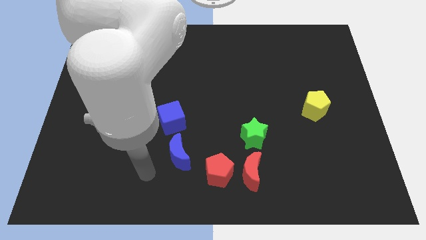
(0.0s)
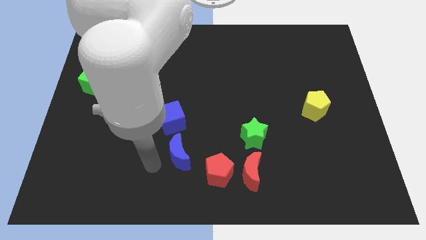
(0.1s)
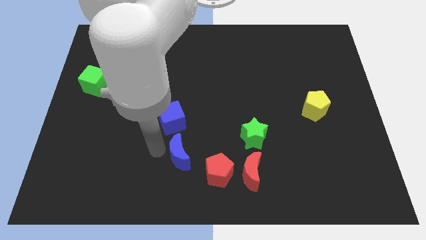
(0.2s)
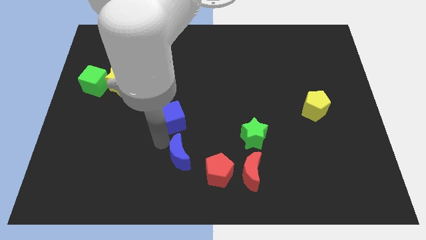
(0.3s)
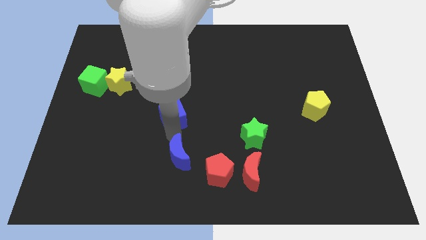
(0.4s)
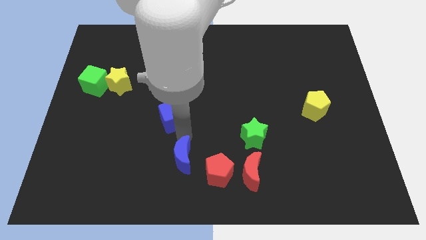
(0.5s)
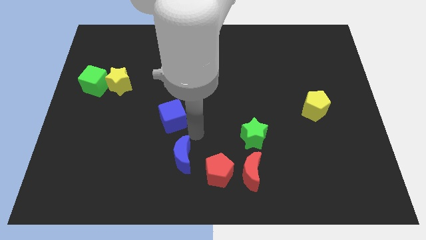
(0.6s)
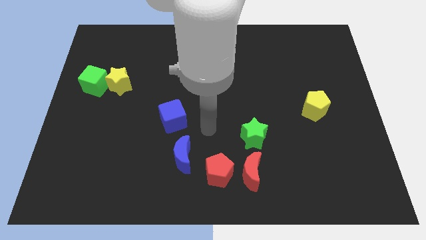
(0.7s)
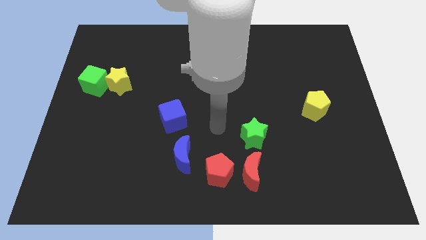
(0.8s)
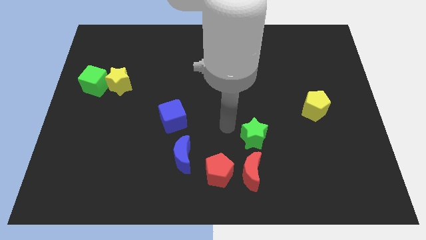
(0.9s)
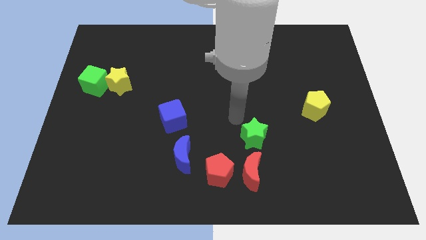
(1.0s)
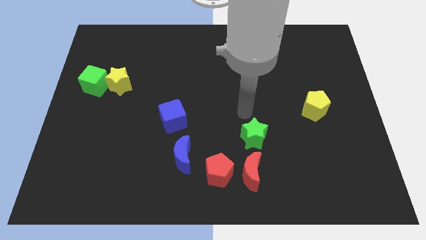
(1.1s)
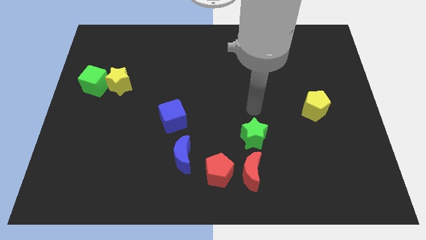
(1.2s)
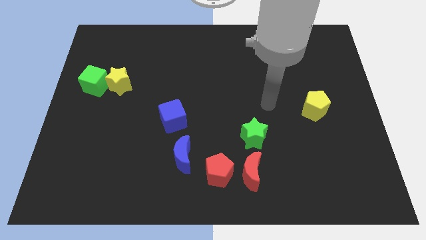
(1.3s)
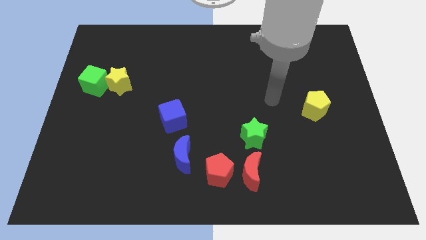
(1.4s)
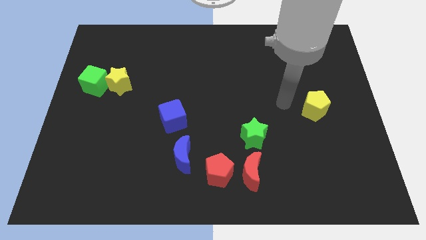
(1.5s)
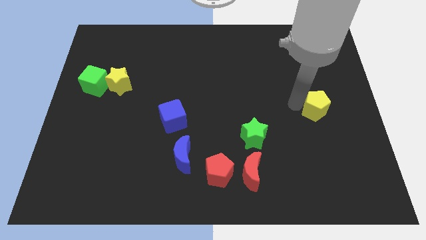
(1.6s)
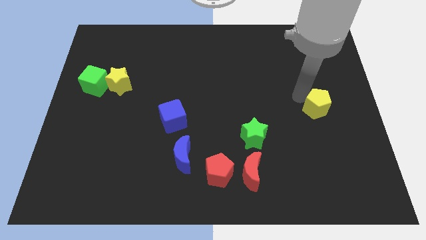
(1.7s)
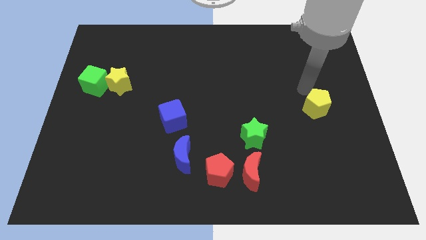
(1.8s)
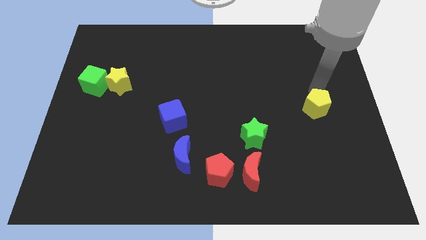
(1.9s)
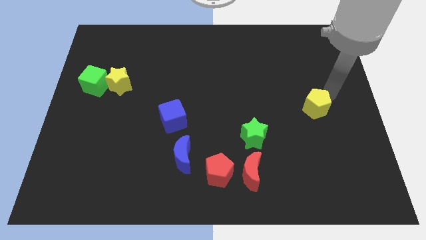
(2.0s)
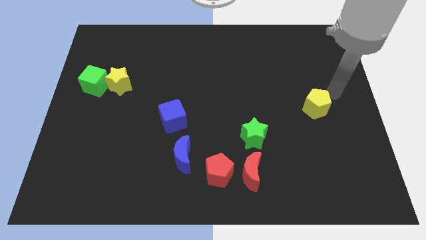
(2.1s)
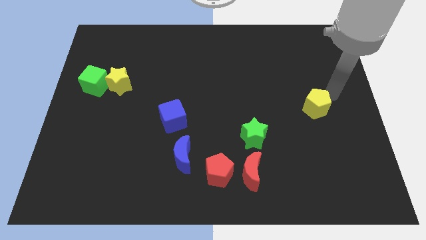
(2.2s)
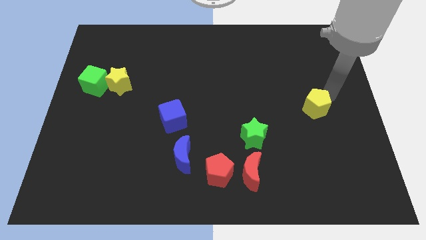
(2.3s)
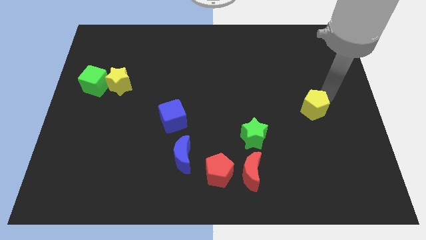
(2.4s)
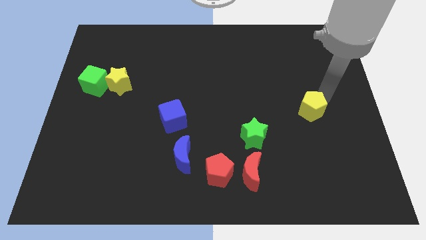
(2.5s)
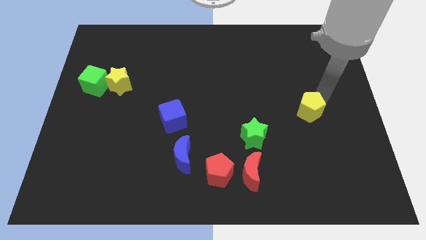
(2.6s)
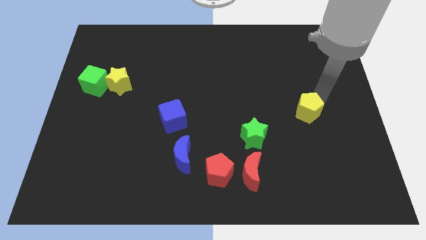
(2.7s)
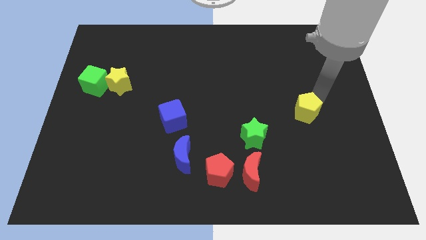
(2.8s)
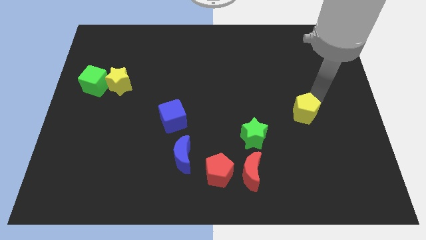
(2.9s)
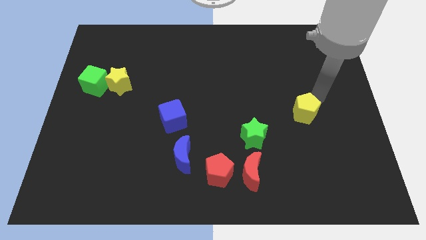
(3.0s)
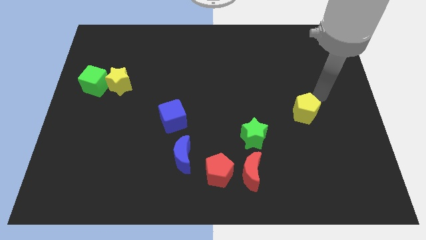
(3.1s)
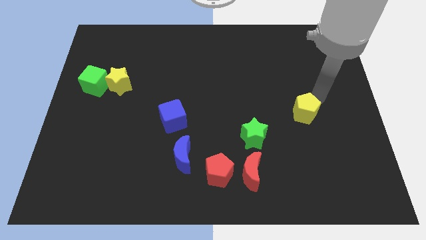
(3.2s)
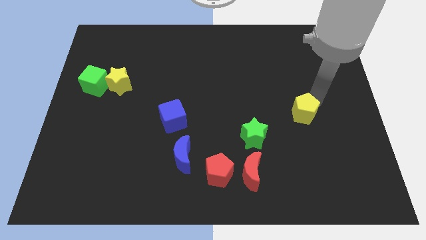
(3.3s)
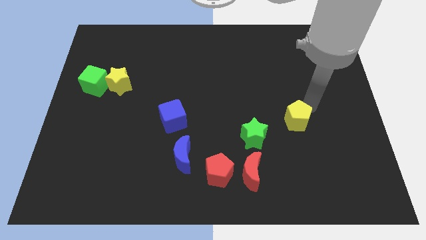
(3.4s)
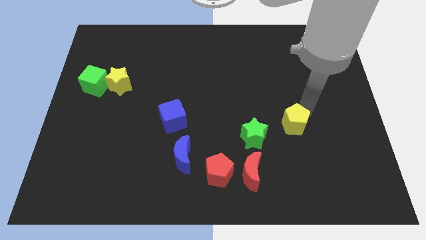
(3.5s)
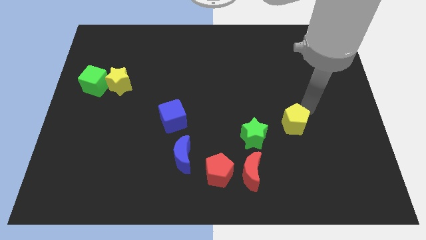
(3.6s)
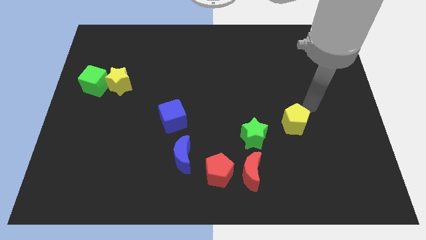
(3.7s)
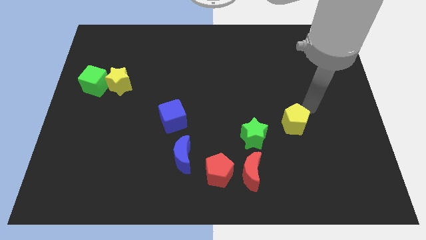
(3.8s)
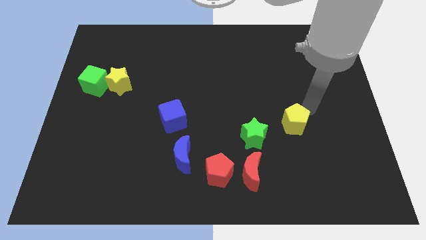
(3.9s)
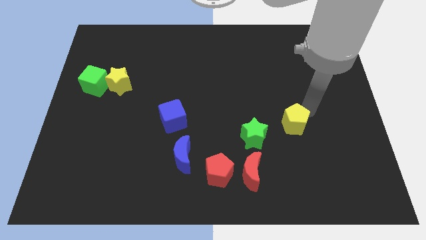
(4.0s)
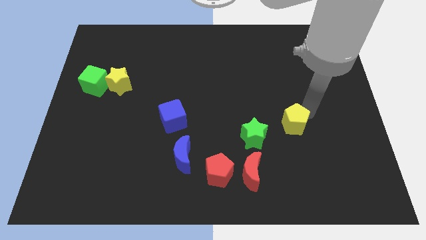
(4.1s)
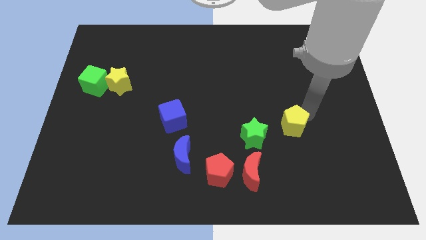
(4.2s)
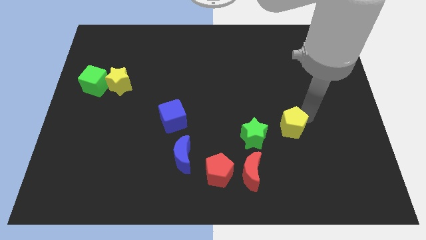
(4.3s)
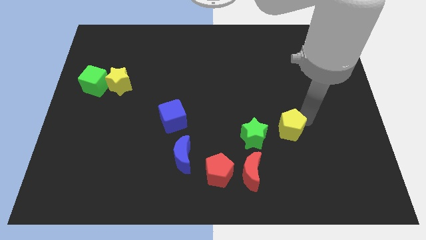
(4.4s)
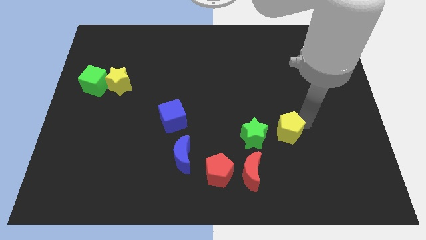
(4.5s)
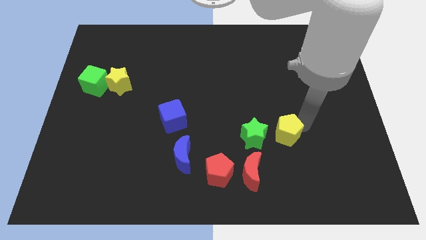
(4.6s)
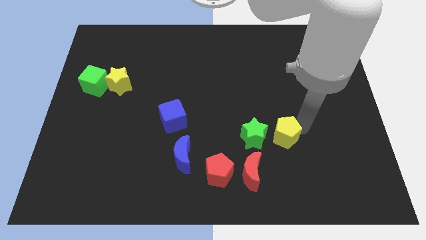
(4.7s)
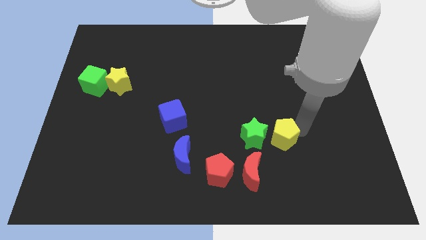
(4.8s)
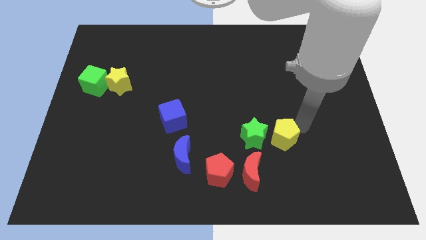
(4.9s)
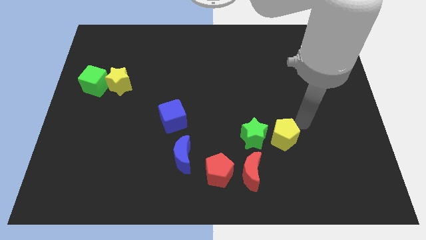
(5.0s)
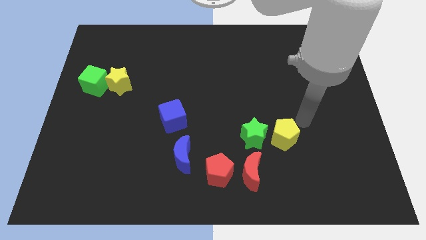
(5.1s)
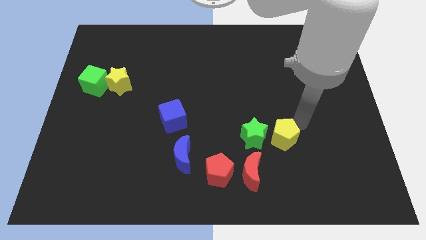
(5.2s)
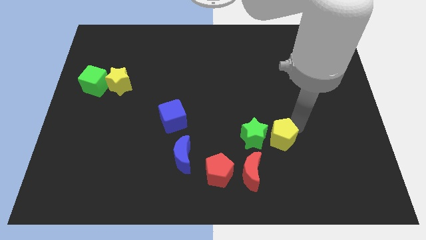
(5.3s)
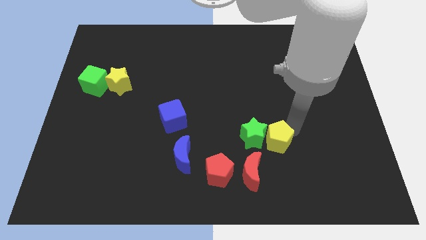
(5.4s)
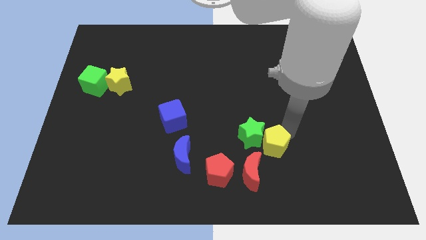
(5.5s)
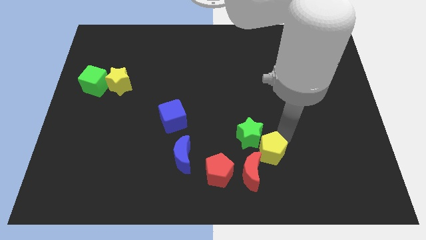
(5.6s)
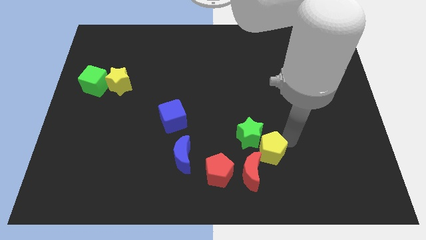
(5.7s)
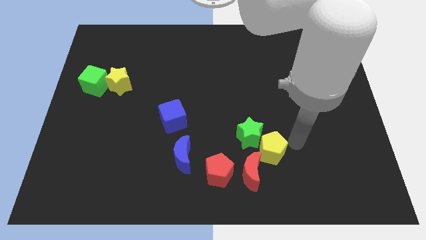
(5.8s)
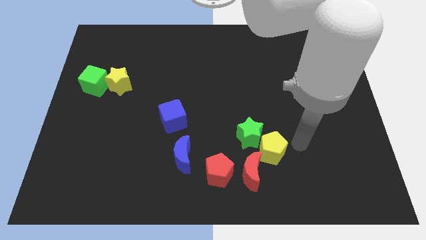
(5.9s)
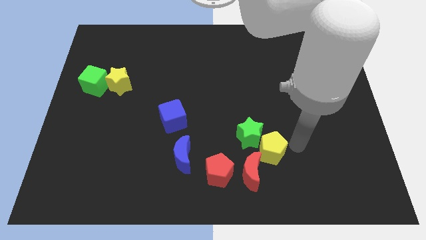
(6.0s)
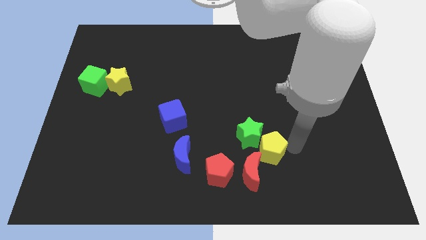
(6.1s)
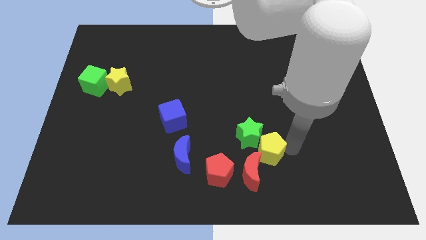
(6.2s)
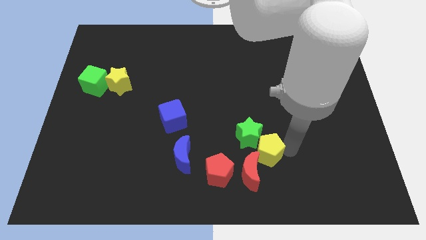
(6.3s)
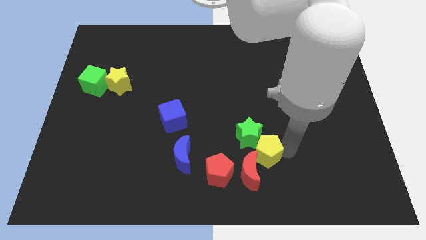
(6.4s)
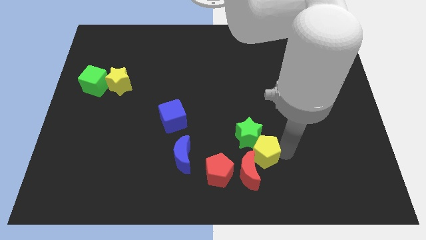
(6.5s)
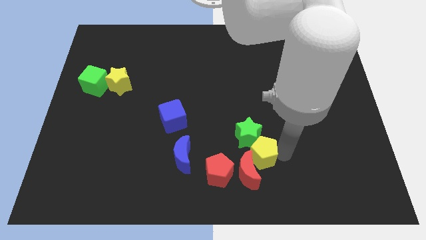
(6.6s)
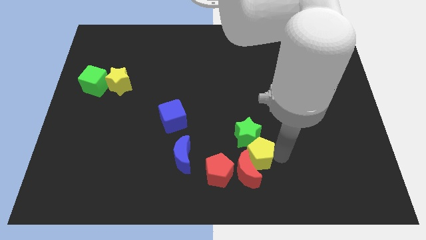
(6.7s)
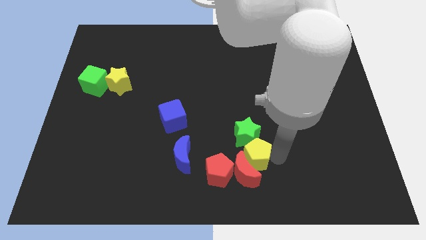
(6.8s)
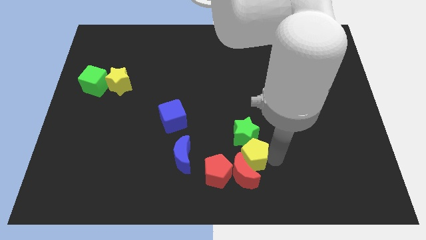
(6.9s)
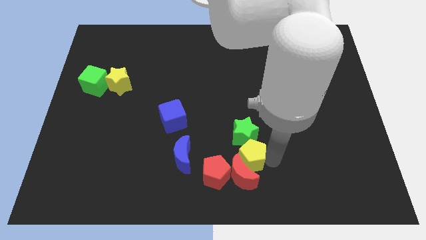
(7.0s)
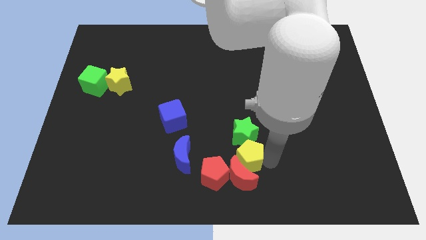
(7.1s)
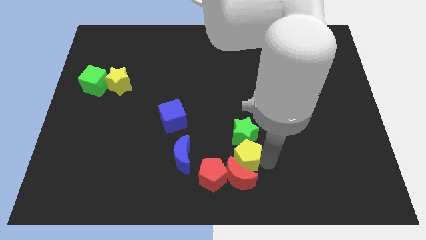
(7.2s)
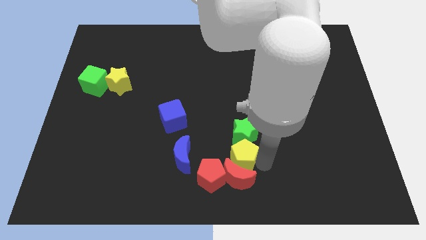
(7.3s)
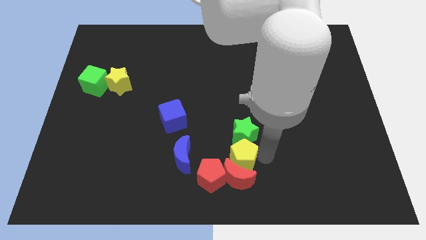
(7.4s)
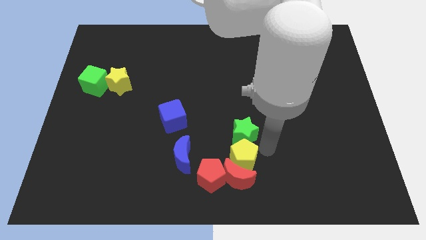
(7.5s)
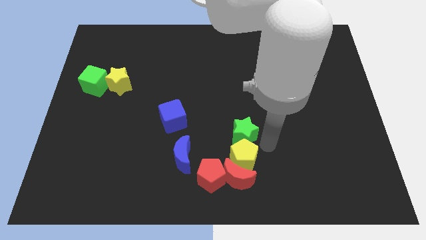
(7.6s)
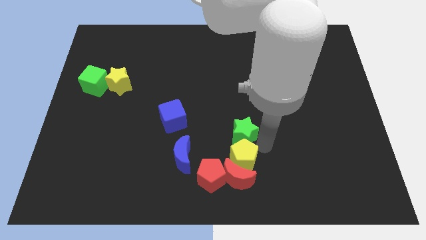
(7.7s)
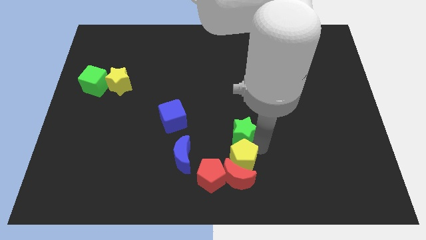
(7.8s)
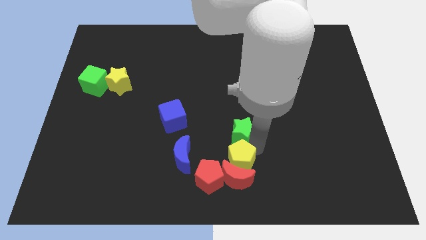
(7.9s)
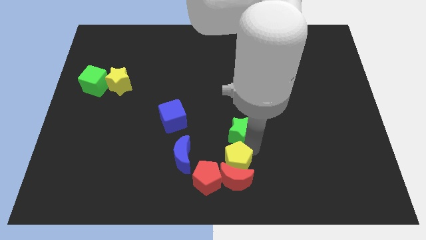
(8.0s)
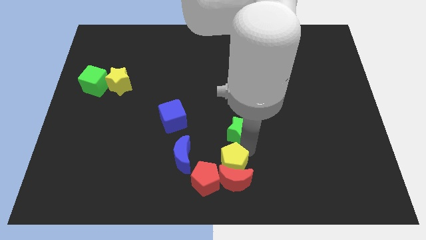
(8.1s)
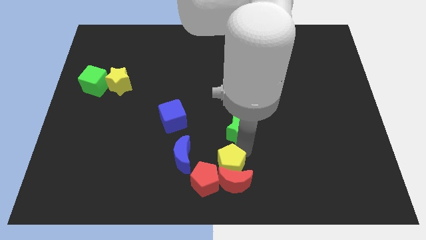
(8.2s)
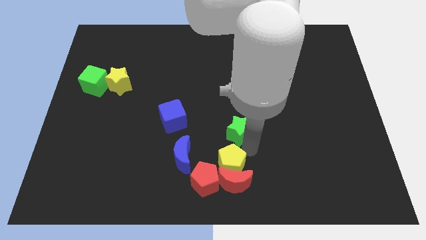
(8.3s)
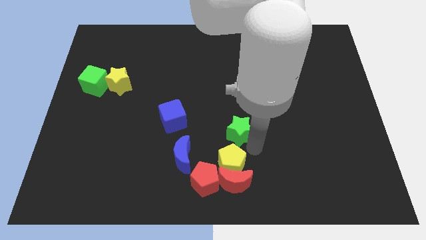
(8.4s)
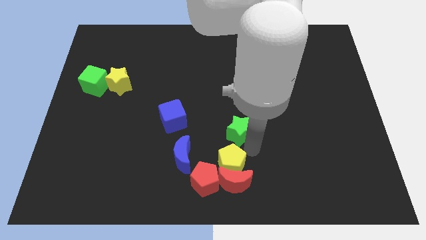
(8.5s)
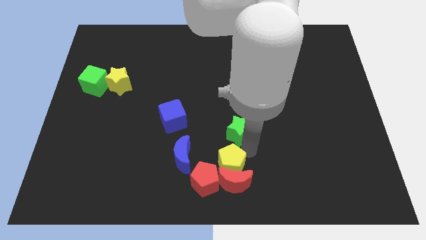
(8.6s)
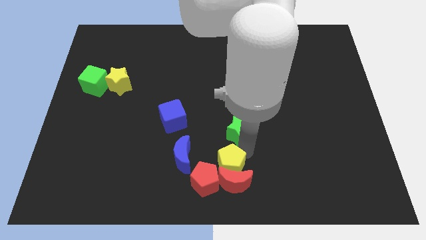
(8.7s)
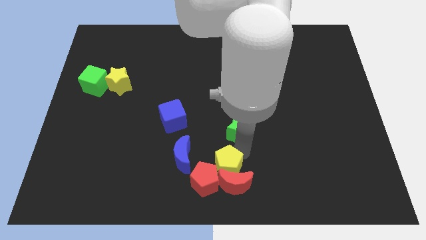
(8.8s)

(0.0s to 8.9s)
push the yellow pentagon towards the red pentagon
